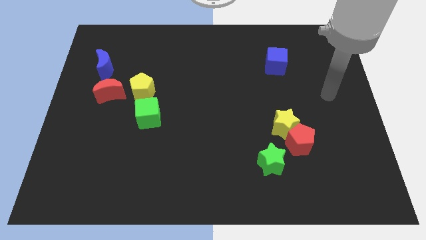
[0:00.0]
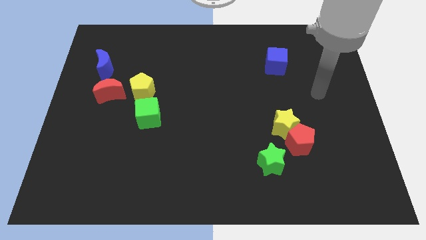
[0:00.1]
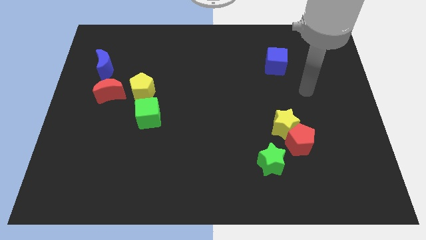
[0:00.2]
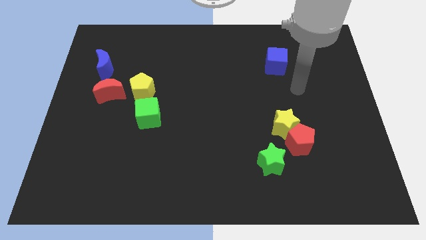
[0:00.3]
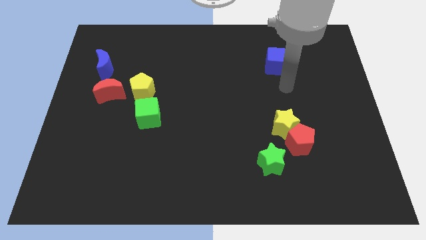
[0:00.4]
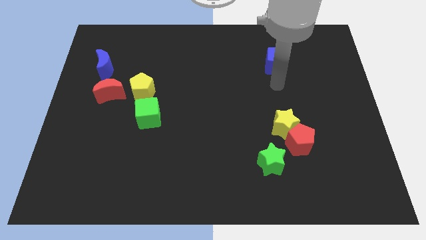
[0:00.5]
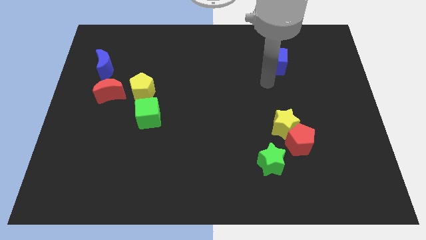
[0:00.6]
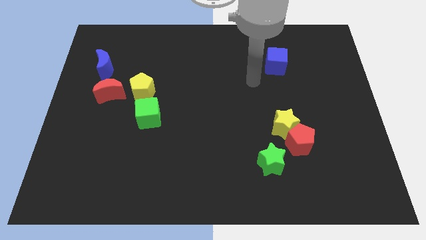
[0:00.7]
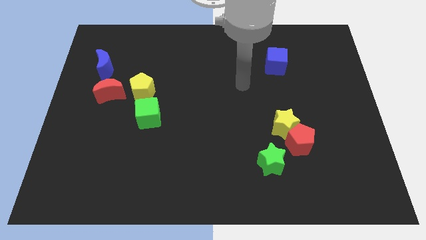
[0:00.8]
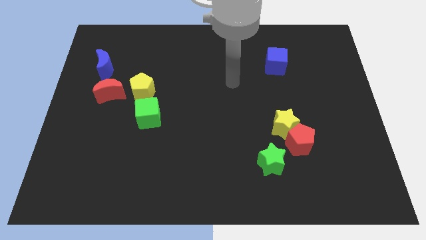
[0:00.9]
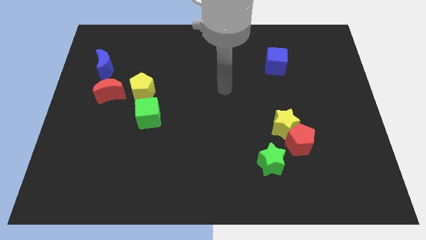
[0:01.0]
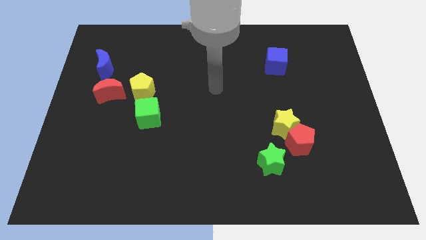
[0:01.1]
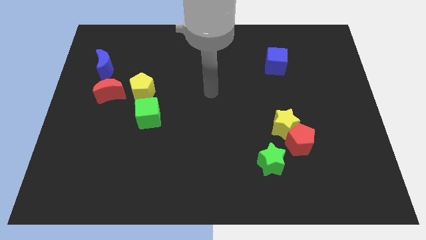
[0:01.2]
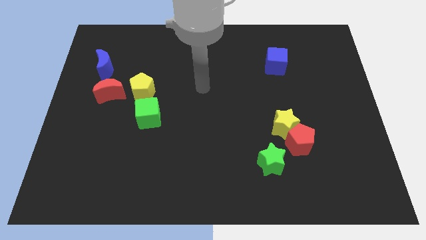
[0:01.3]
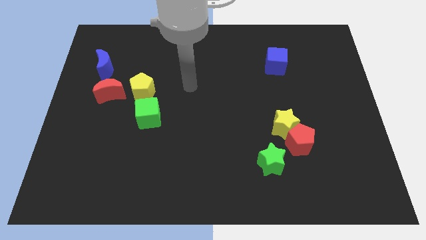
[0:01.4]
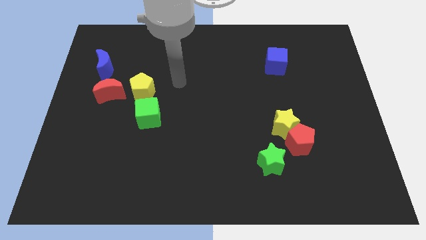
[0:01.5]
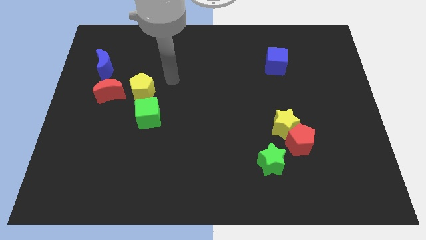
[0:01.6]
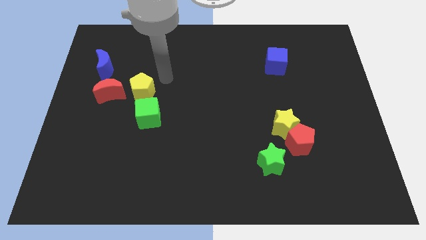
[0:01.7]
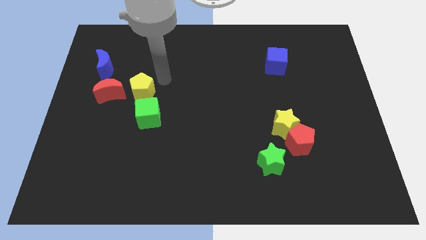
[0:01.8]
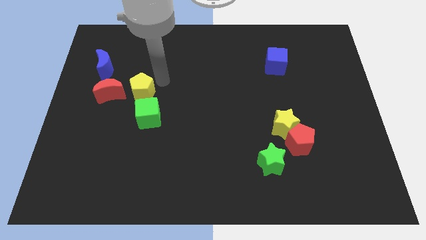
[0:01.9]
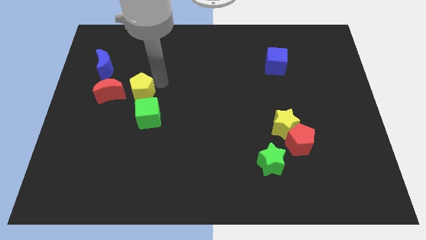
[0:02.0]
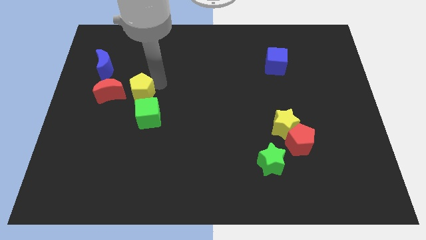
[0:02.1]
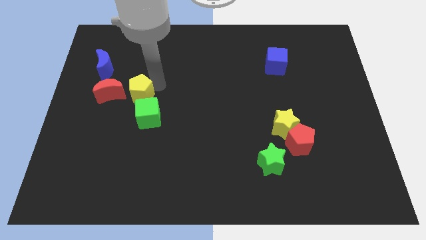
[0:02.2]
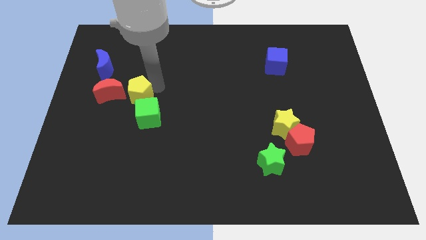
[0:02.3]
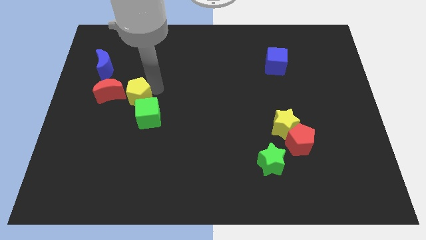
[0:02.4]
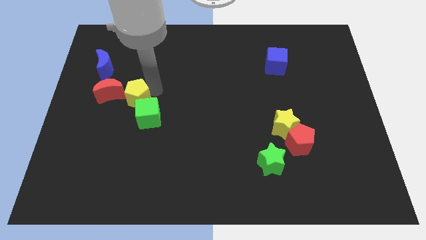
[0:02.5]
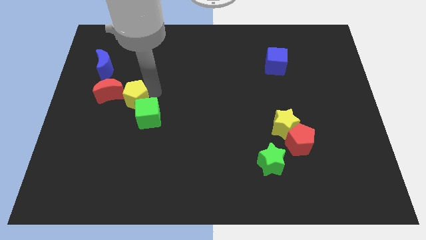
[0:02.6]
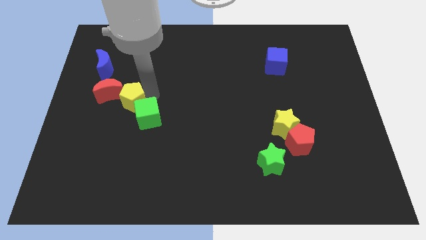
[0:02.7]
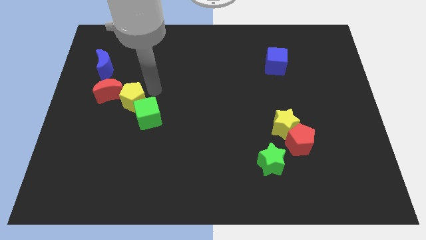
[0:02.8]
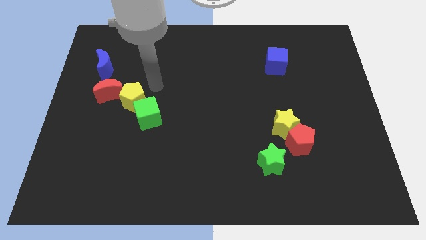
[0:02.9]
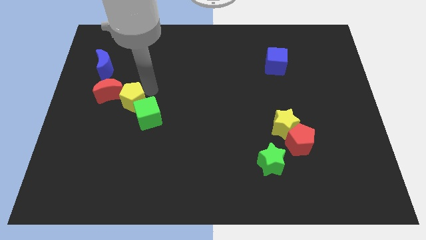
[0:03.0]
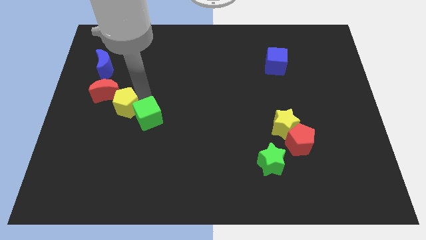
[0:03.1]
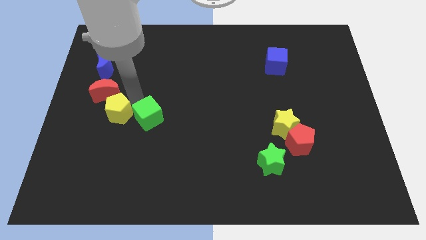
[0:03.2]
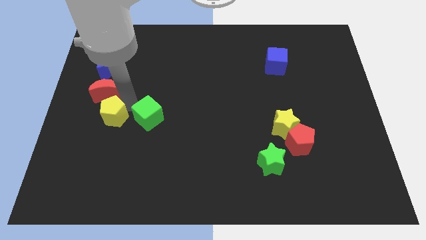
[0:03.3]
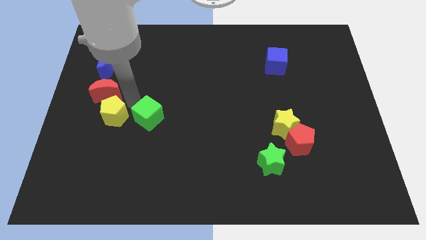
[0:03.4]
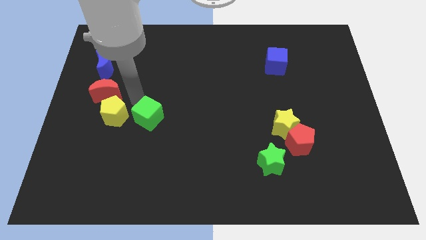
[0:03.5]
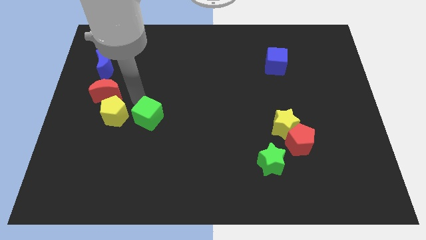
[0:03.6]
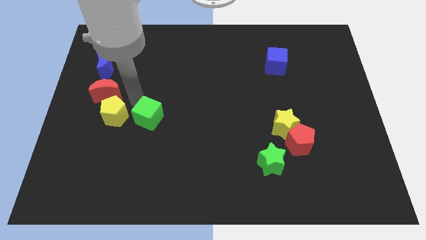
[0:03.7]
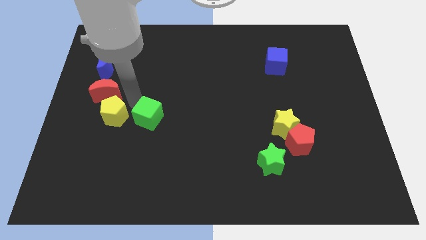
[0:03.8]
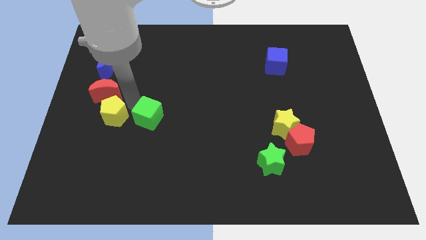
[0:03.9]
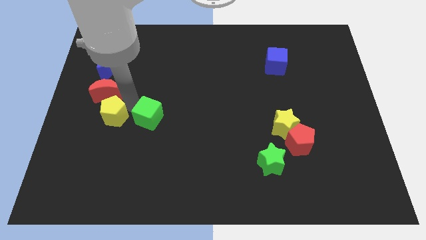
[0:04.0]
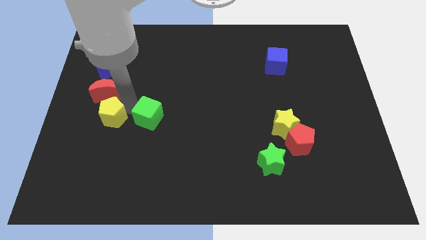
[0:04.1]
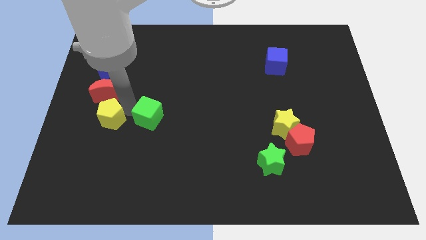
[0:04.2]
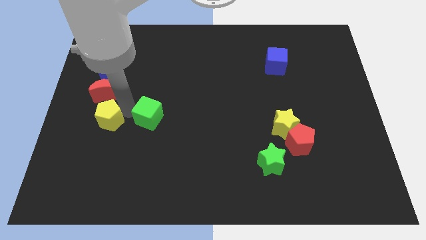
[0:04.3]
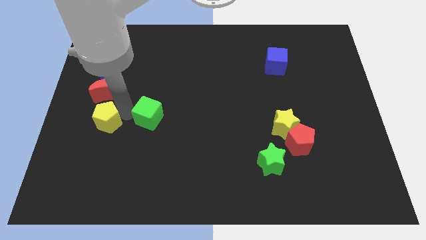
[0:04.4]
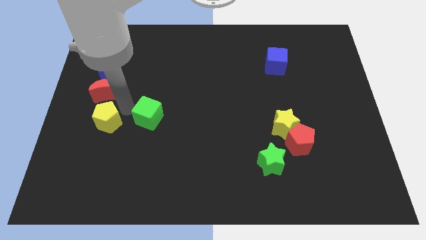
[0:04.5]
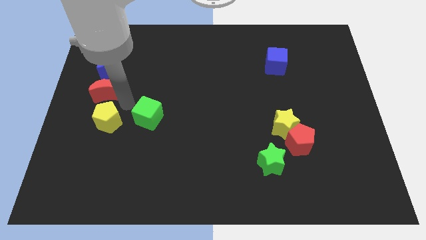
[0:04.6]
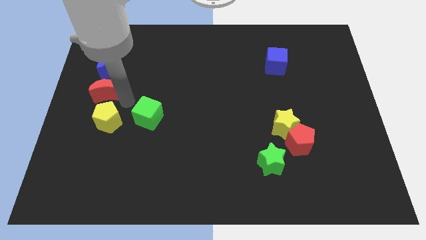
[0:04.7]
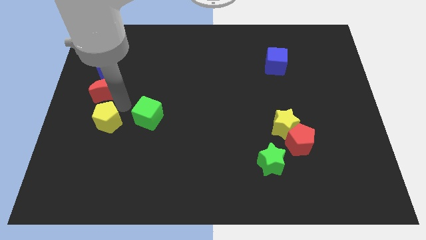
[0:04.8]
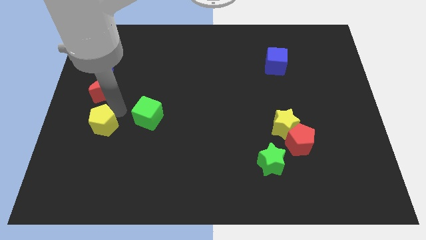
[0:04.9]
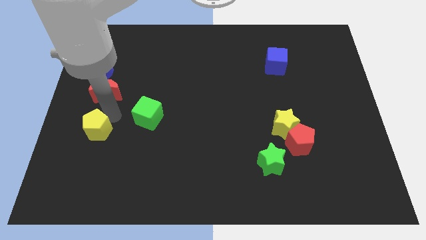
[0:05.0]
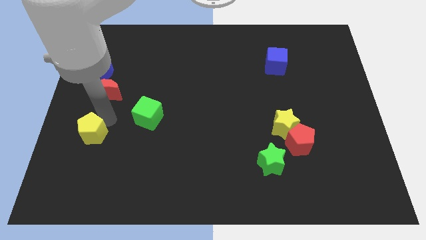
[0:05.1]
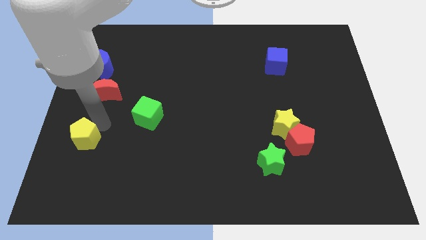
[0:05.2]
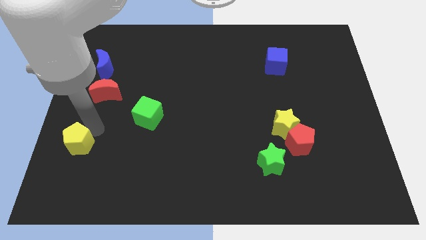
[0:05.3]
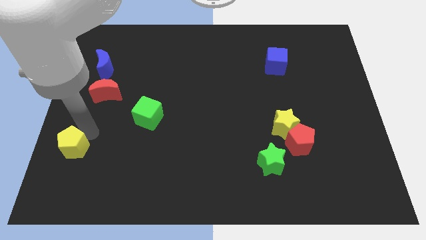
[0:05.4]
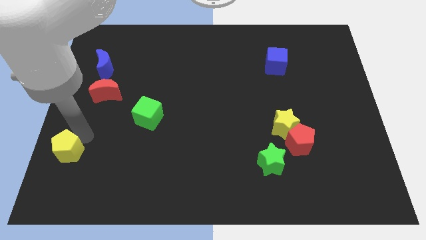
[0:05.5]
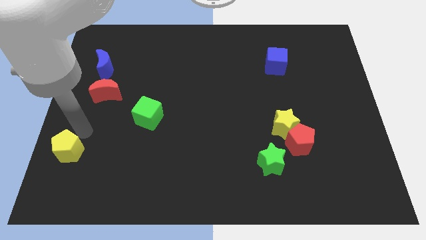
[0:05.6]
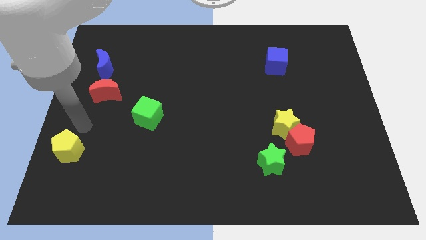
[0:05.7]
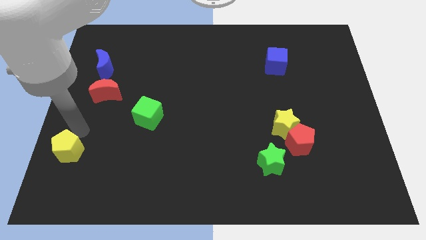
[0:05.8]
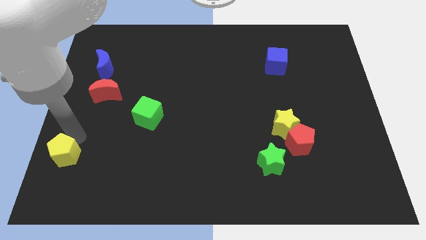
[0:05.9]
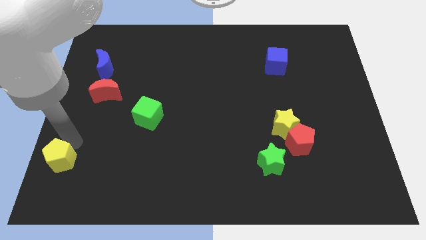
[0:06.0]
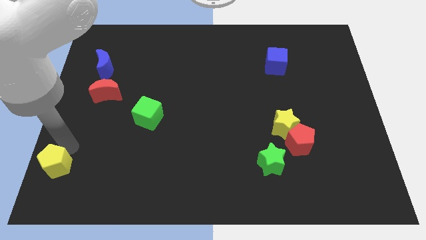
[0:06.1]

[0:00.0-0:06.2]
push the yellow pentagon to the bottom left
